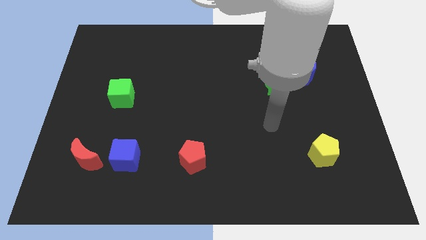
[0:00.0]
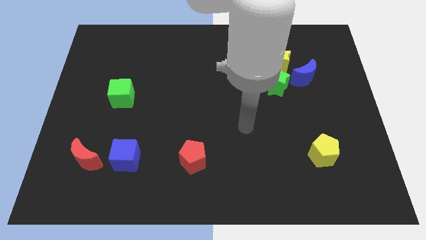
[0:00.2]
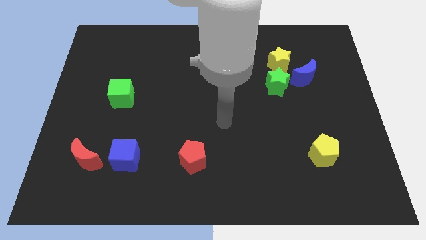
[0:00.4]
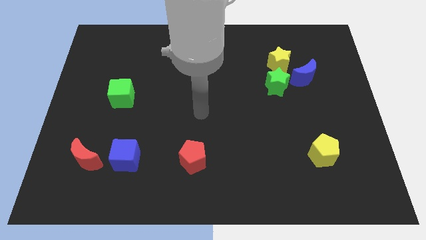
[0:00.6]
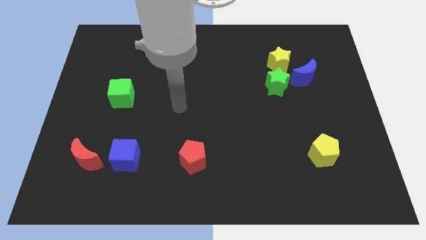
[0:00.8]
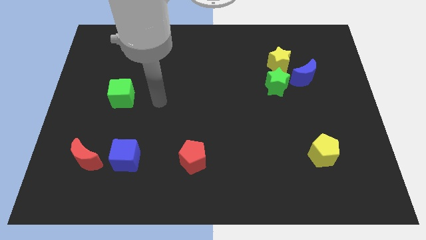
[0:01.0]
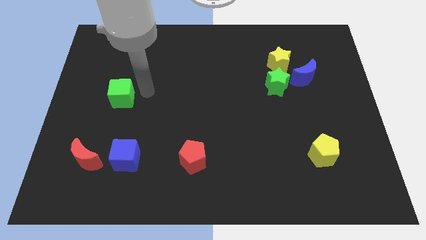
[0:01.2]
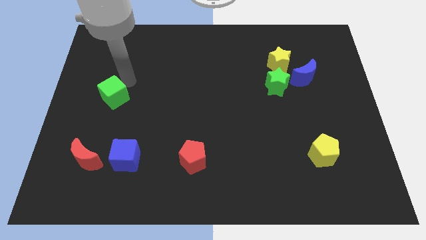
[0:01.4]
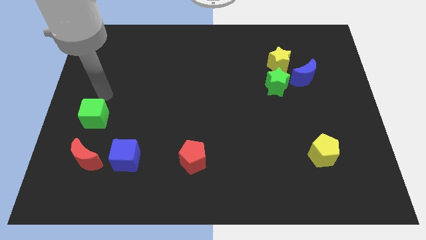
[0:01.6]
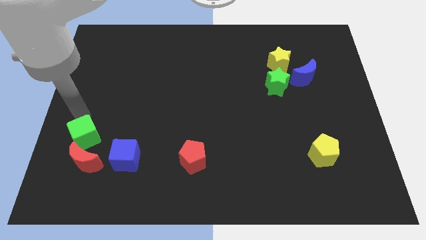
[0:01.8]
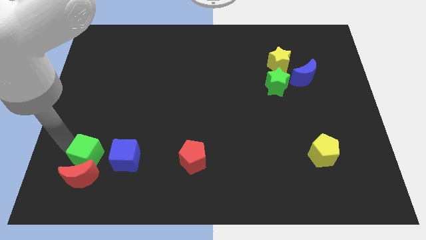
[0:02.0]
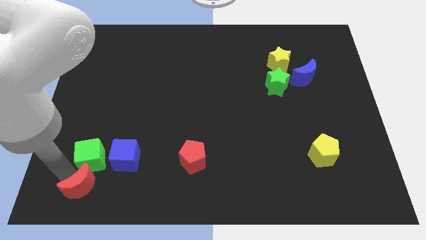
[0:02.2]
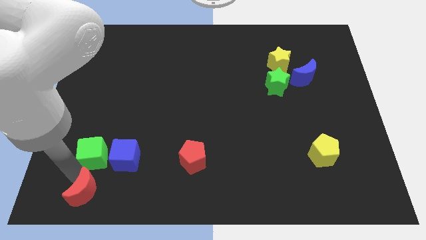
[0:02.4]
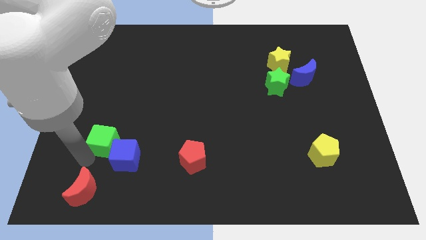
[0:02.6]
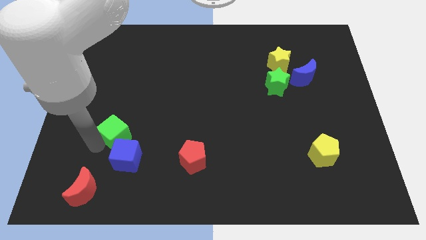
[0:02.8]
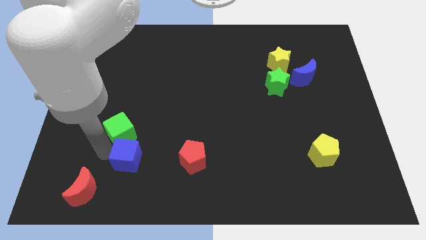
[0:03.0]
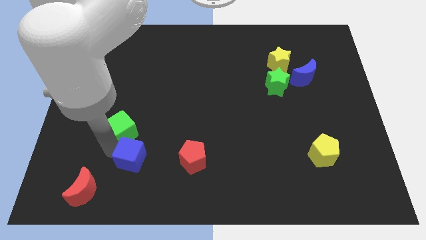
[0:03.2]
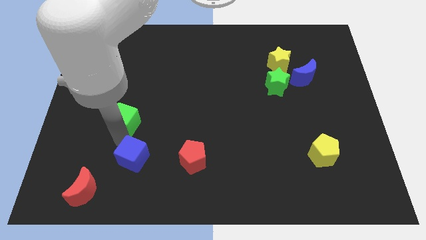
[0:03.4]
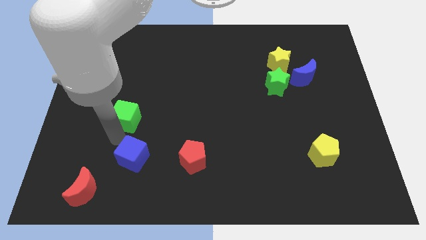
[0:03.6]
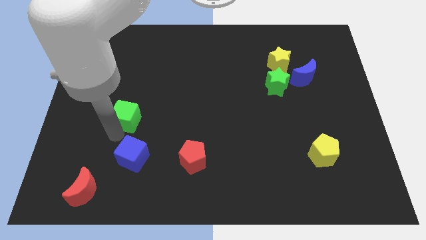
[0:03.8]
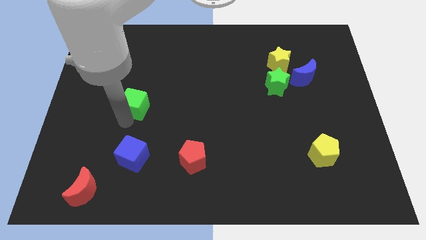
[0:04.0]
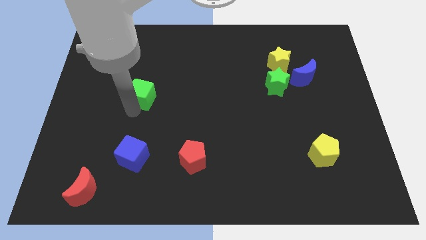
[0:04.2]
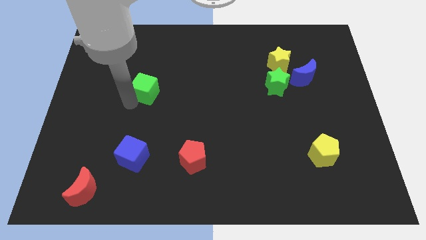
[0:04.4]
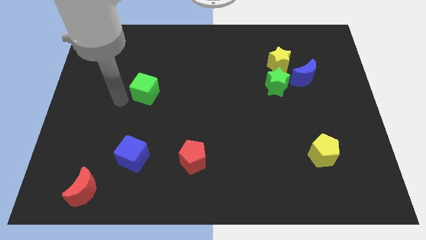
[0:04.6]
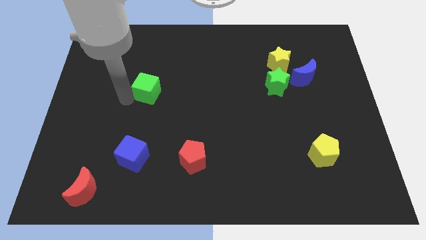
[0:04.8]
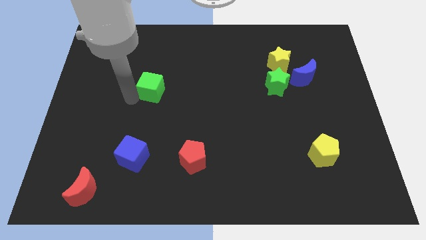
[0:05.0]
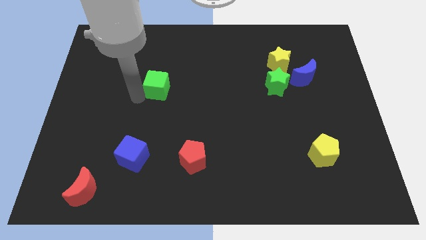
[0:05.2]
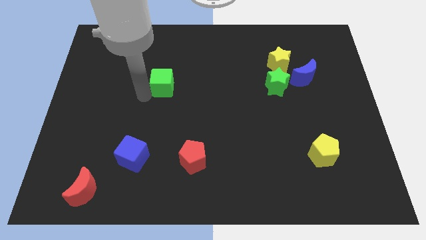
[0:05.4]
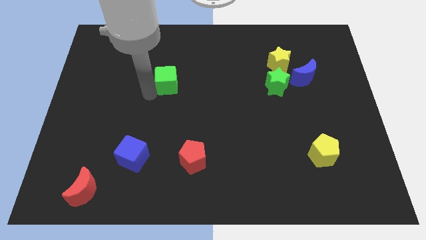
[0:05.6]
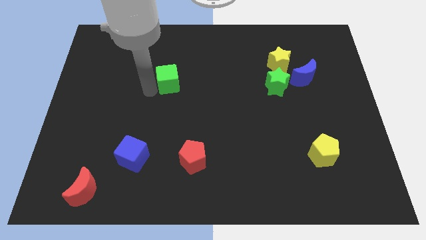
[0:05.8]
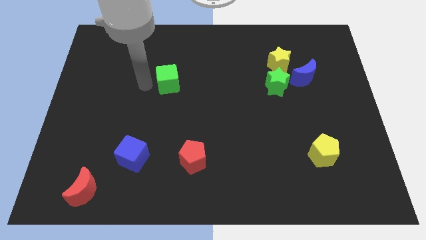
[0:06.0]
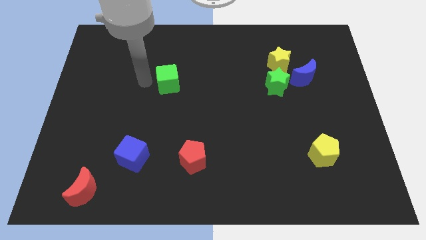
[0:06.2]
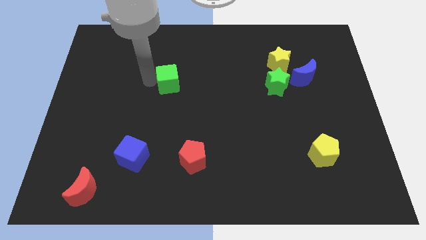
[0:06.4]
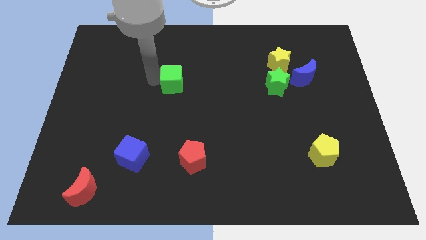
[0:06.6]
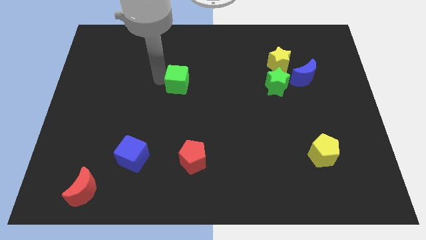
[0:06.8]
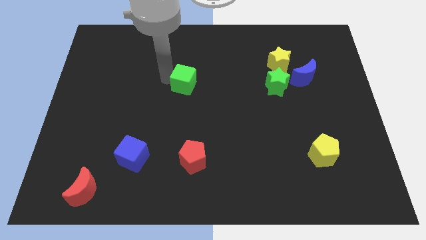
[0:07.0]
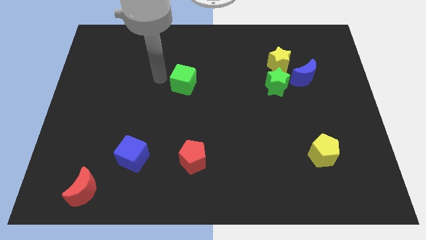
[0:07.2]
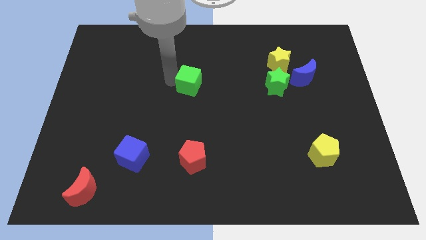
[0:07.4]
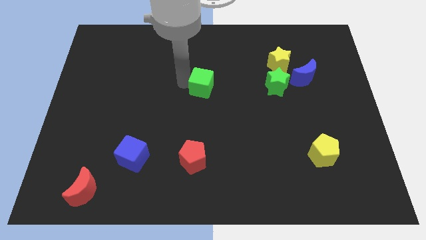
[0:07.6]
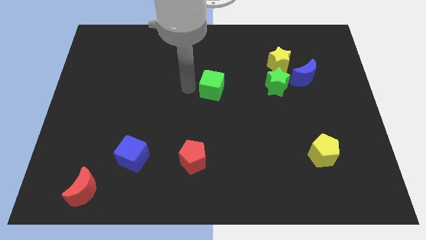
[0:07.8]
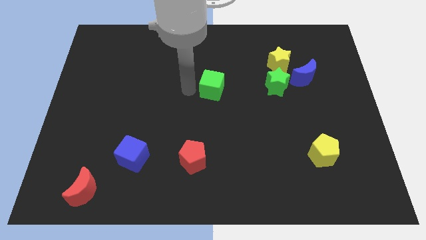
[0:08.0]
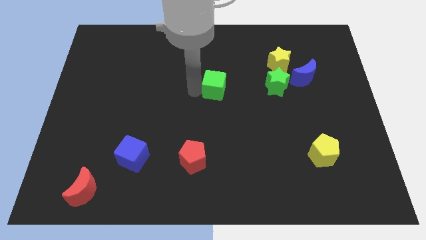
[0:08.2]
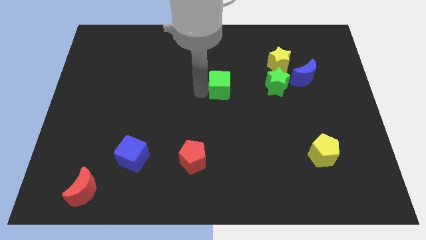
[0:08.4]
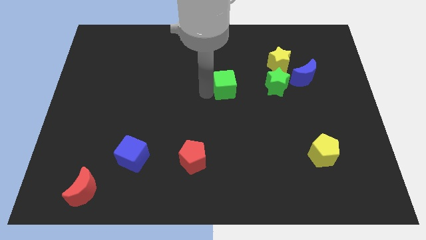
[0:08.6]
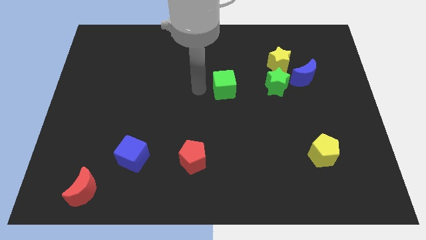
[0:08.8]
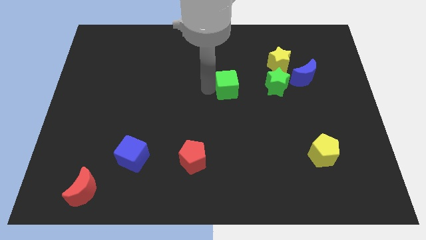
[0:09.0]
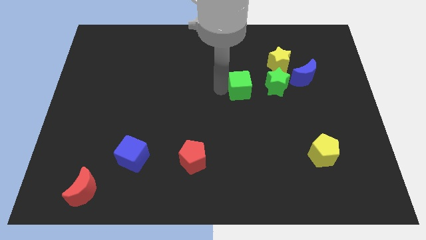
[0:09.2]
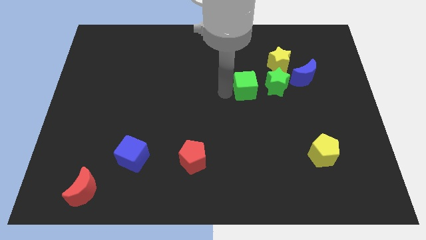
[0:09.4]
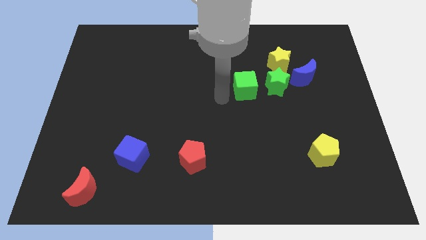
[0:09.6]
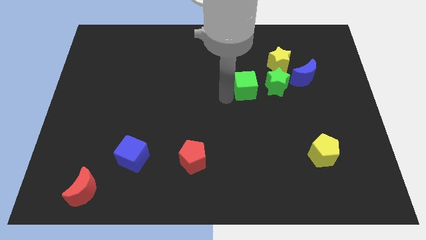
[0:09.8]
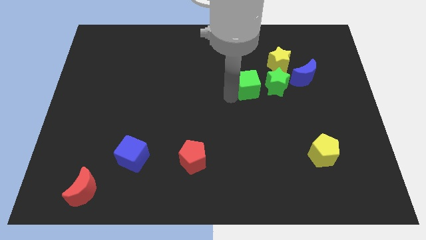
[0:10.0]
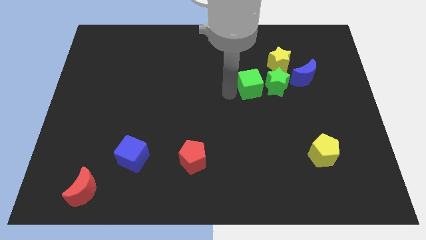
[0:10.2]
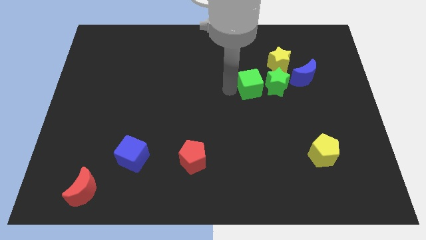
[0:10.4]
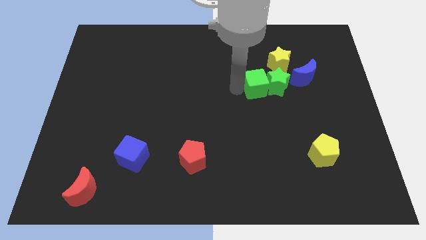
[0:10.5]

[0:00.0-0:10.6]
push the green cube to the green star

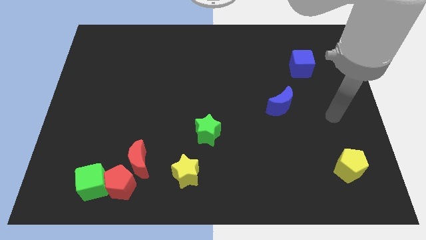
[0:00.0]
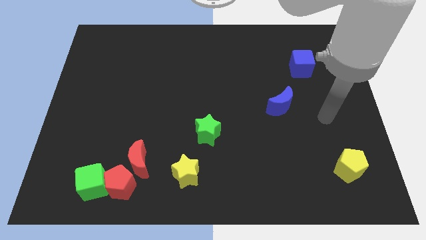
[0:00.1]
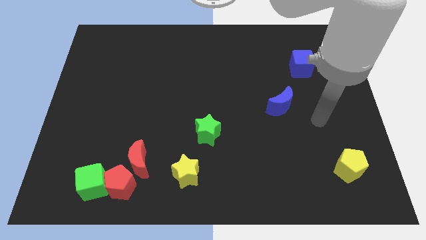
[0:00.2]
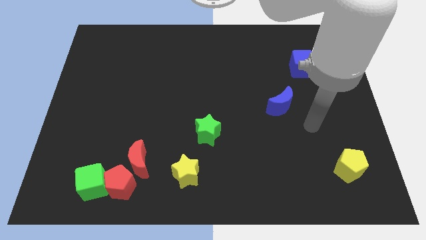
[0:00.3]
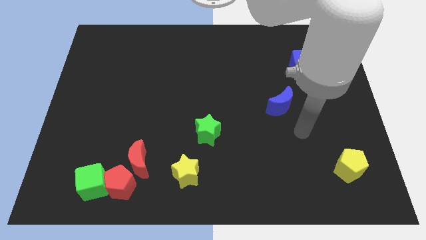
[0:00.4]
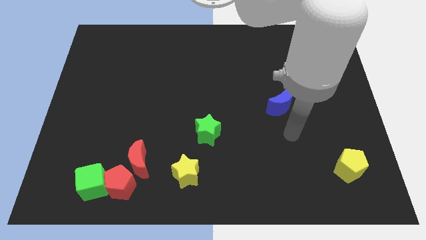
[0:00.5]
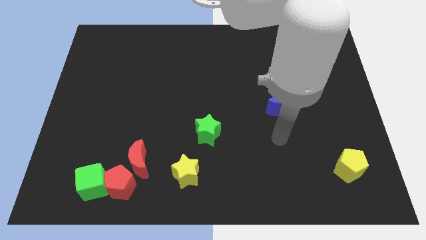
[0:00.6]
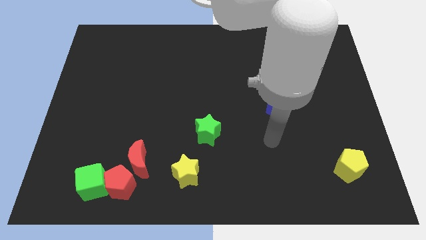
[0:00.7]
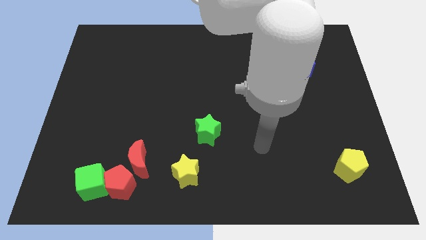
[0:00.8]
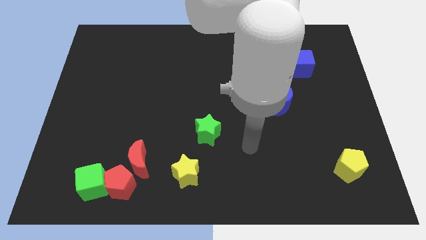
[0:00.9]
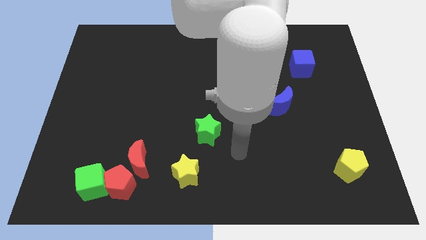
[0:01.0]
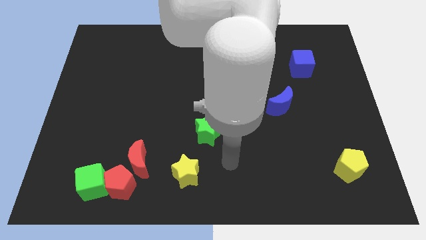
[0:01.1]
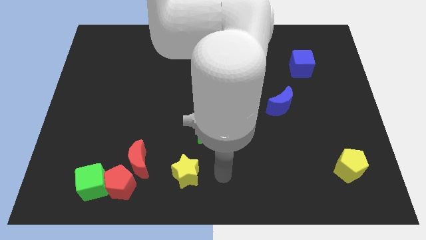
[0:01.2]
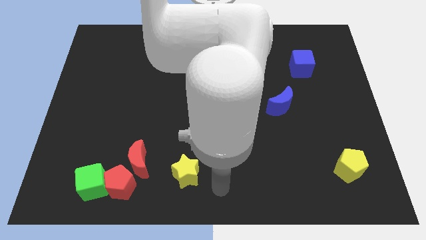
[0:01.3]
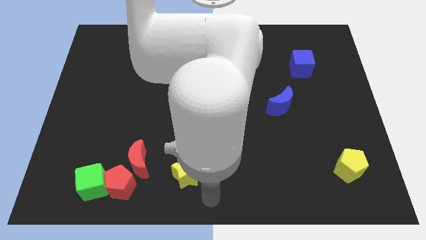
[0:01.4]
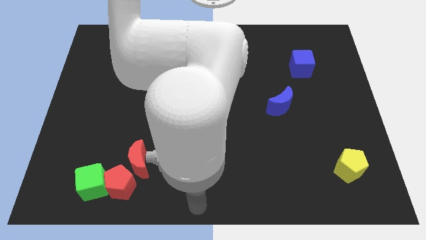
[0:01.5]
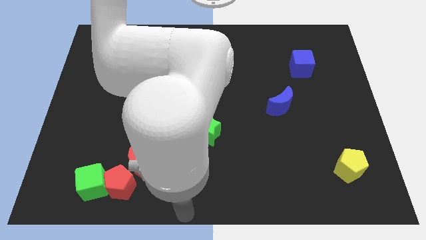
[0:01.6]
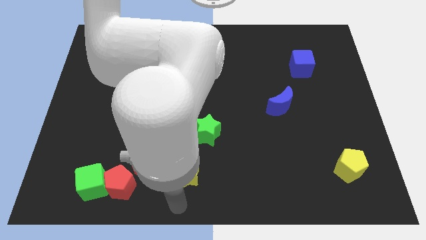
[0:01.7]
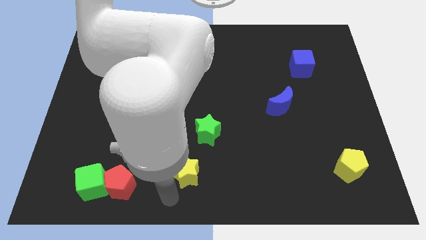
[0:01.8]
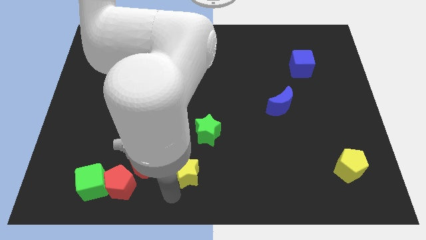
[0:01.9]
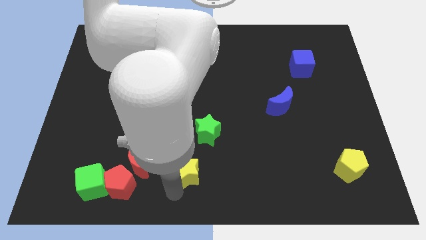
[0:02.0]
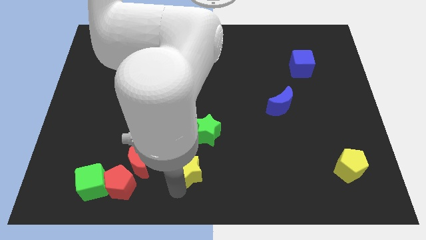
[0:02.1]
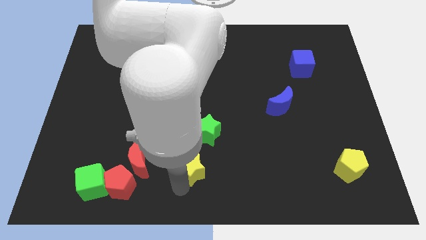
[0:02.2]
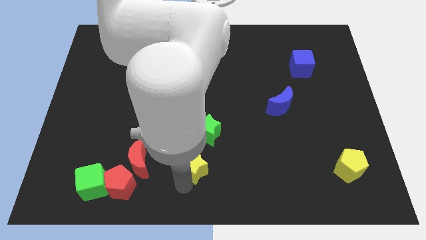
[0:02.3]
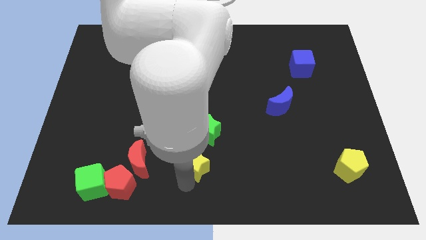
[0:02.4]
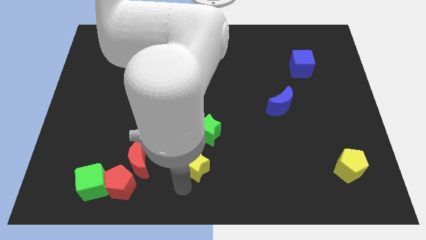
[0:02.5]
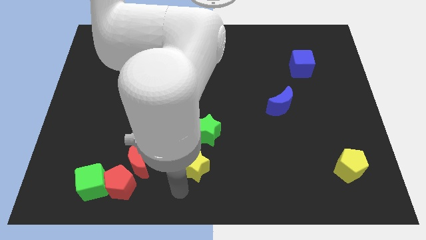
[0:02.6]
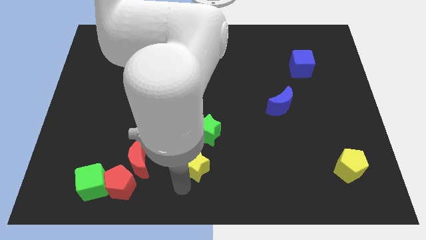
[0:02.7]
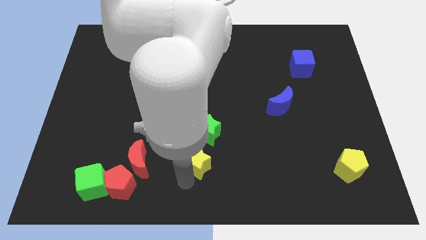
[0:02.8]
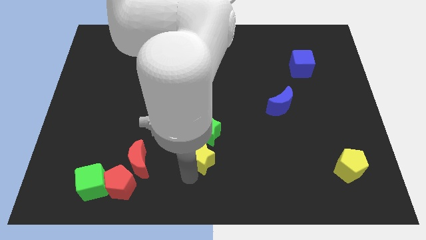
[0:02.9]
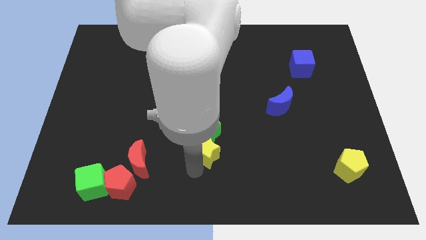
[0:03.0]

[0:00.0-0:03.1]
put the yellow star close to the green star
